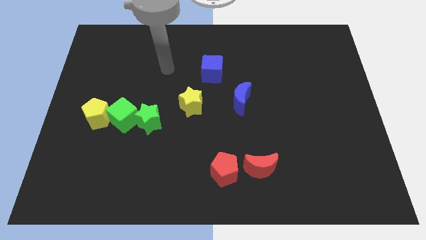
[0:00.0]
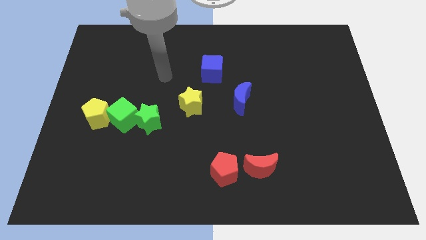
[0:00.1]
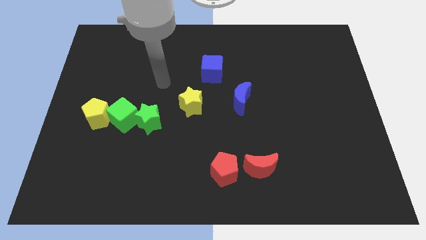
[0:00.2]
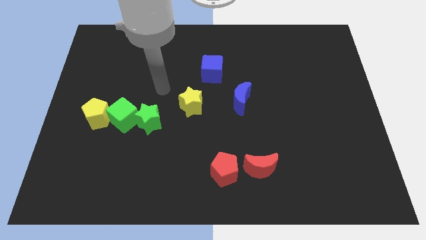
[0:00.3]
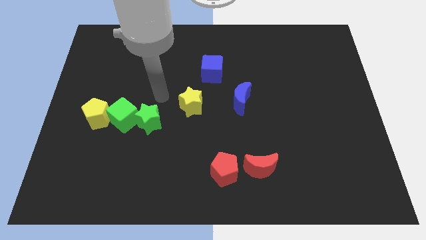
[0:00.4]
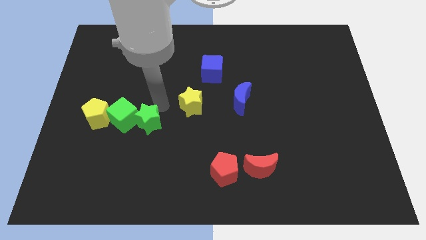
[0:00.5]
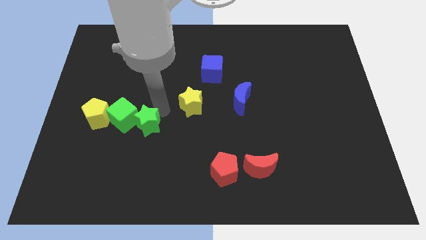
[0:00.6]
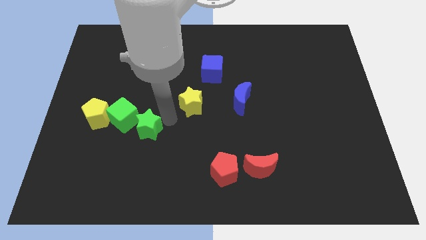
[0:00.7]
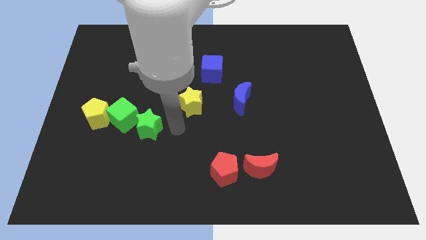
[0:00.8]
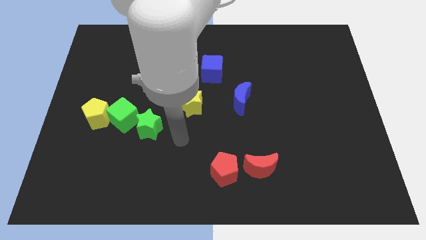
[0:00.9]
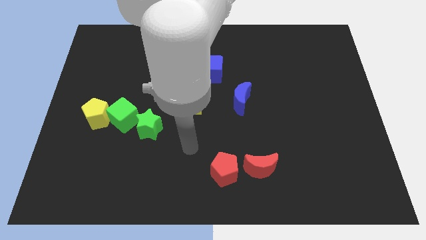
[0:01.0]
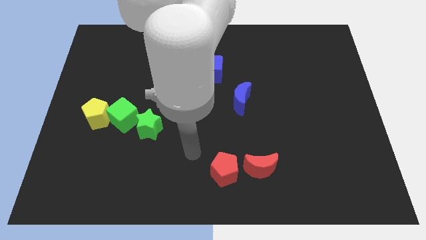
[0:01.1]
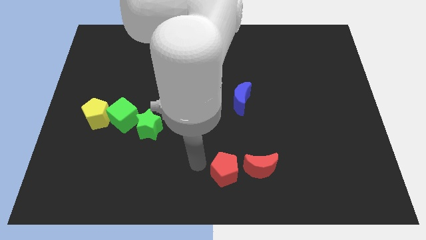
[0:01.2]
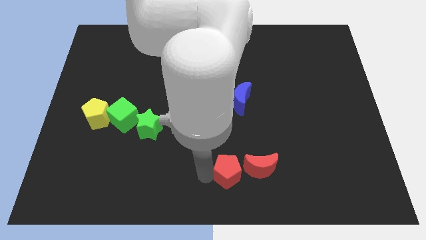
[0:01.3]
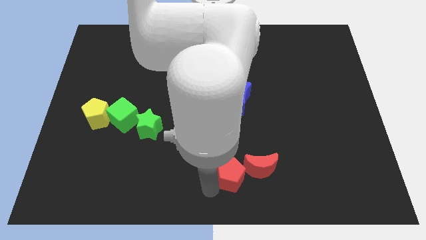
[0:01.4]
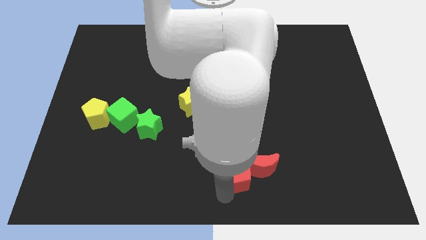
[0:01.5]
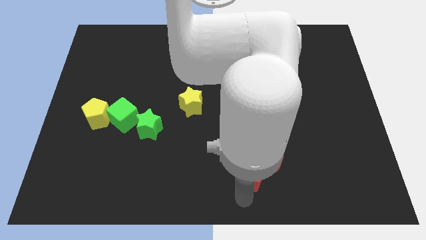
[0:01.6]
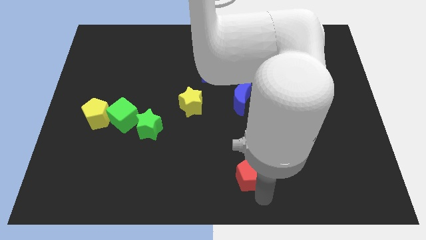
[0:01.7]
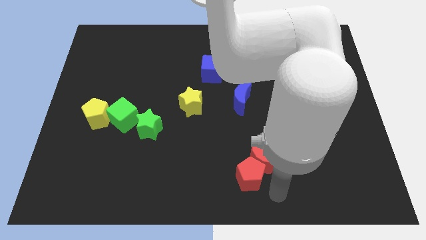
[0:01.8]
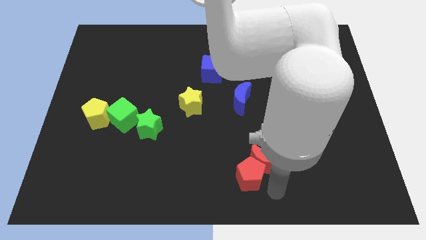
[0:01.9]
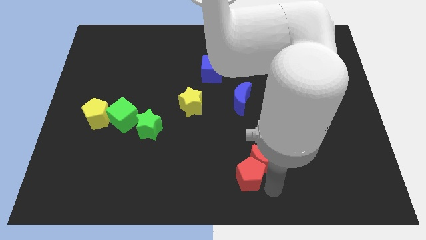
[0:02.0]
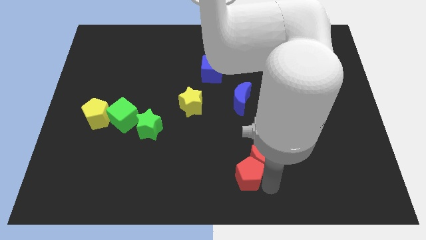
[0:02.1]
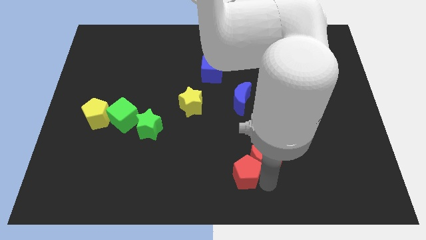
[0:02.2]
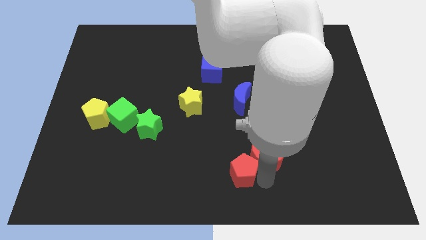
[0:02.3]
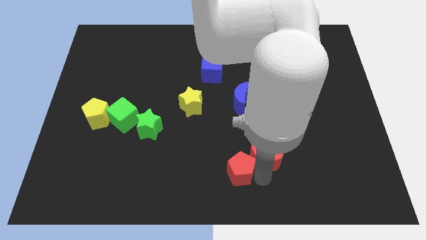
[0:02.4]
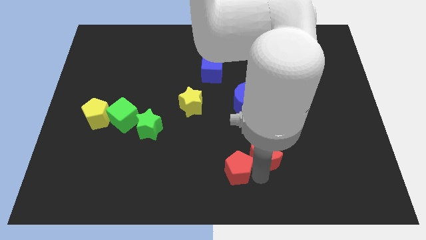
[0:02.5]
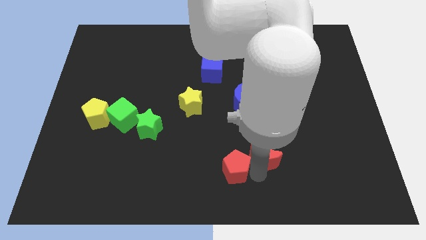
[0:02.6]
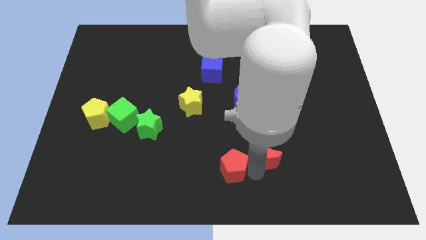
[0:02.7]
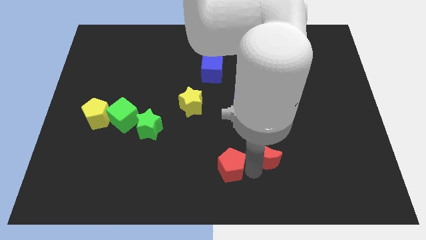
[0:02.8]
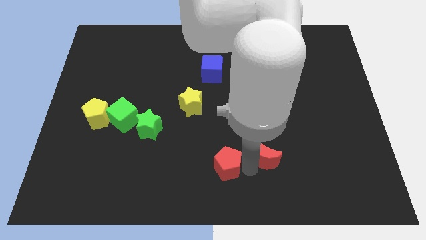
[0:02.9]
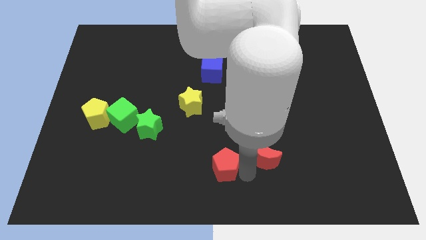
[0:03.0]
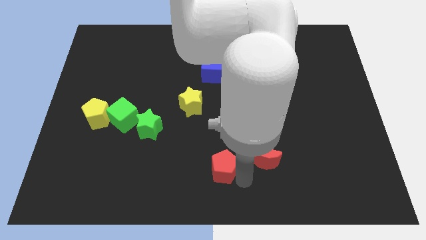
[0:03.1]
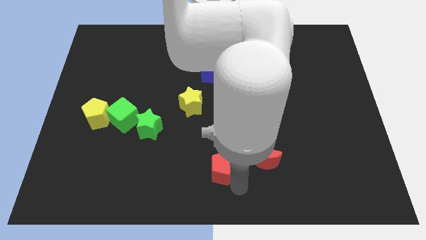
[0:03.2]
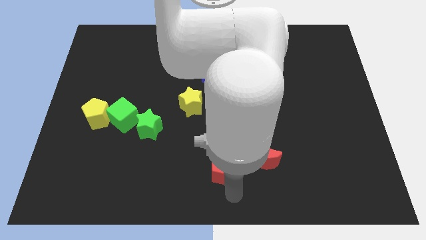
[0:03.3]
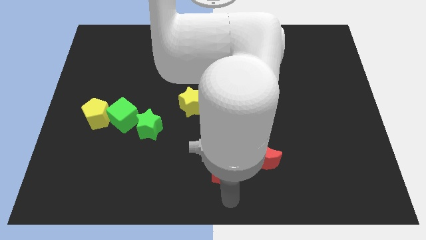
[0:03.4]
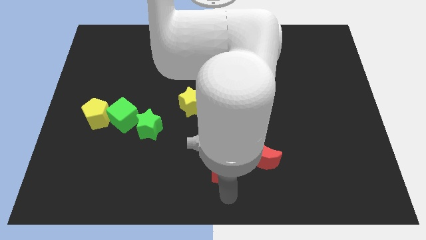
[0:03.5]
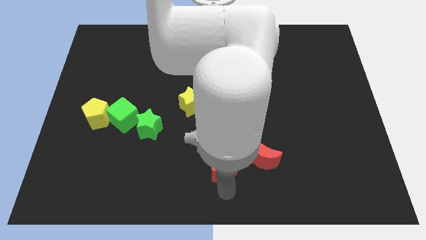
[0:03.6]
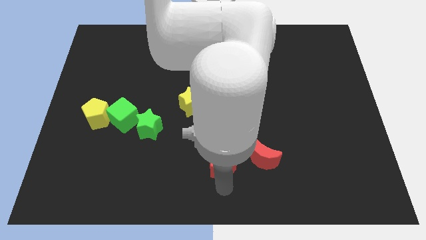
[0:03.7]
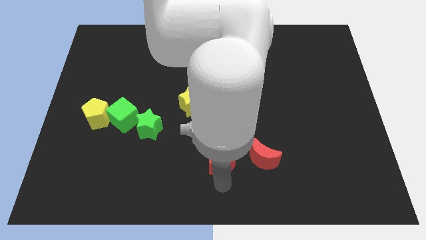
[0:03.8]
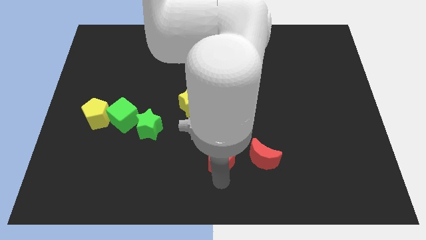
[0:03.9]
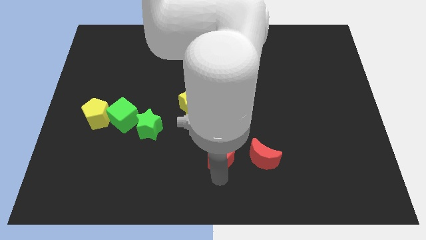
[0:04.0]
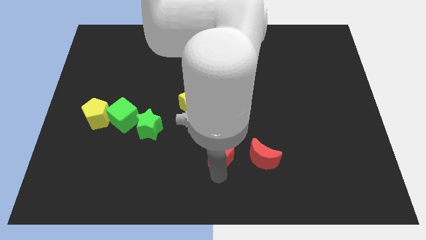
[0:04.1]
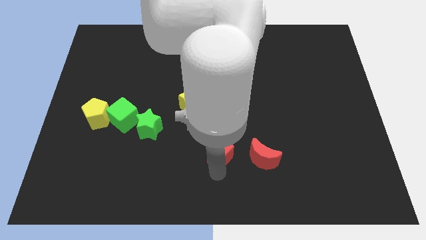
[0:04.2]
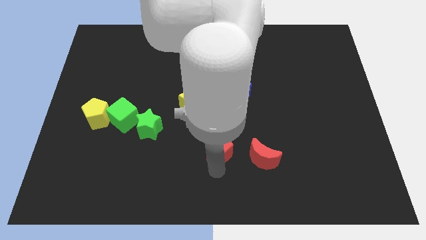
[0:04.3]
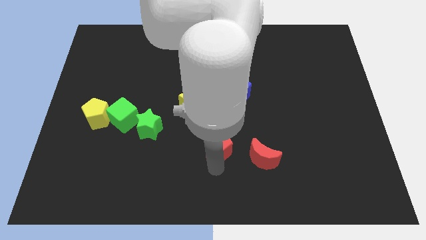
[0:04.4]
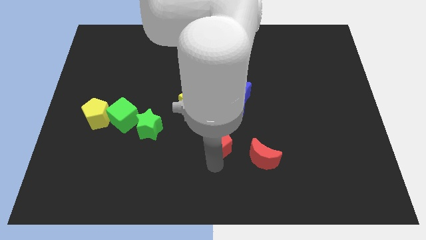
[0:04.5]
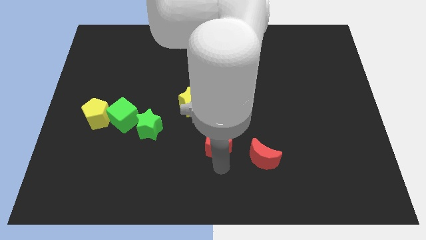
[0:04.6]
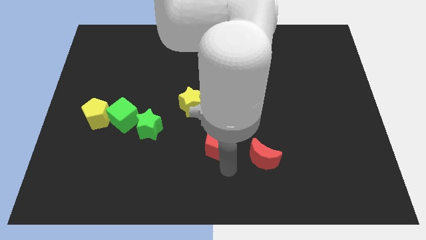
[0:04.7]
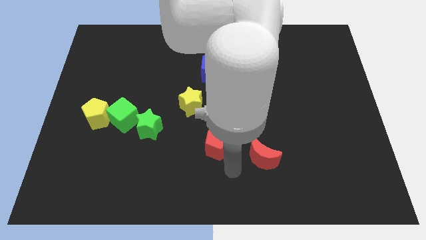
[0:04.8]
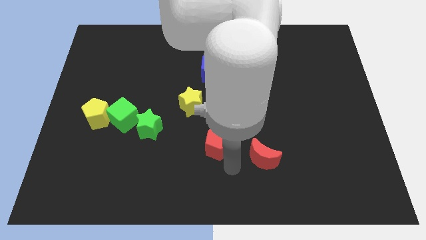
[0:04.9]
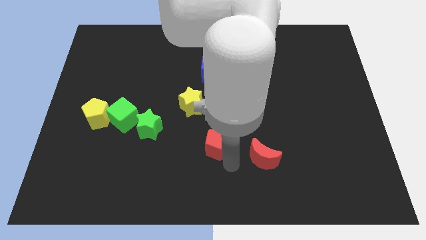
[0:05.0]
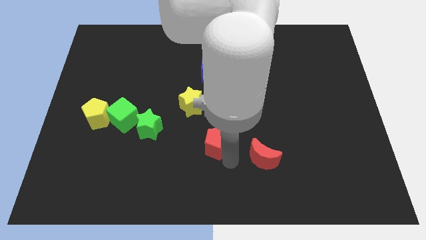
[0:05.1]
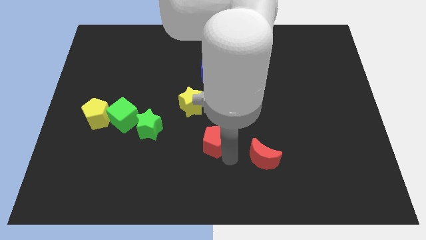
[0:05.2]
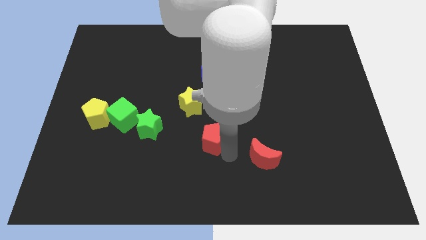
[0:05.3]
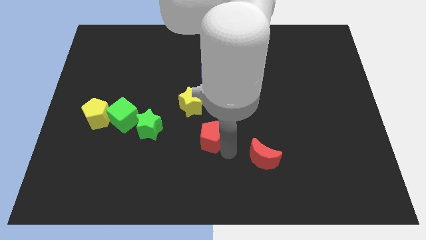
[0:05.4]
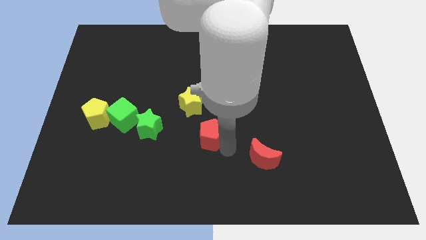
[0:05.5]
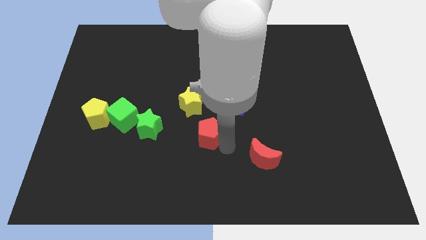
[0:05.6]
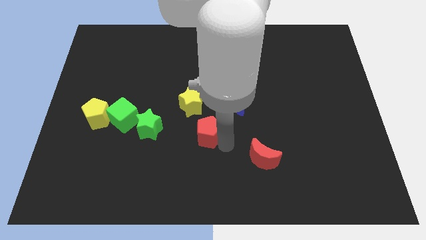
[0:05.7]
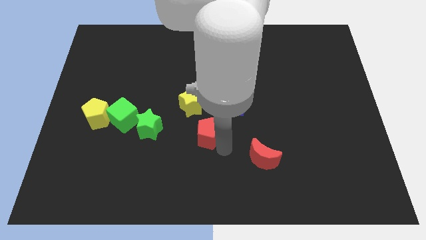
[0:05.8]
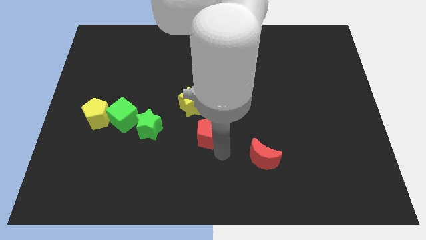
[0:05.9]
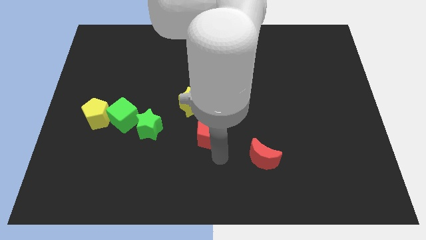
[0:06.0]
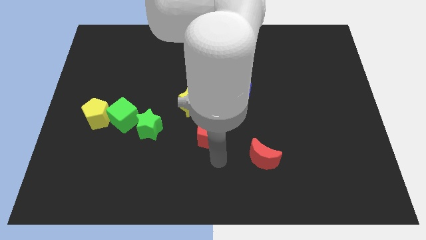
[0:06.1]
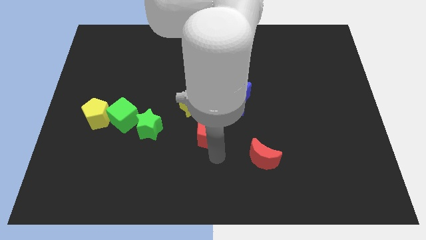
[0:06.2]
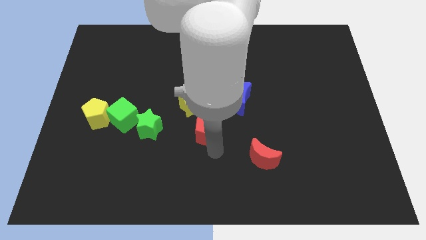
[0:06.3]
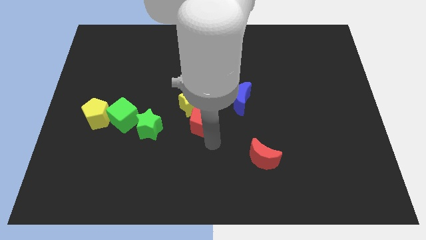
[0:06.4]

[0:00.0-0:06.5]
slide the red pentagon next to the yellow star

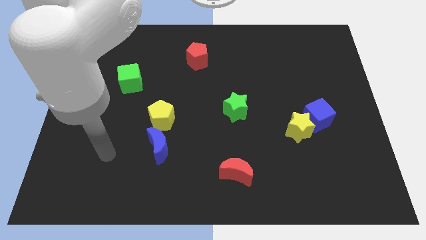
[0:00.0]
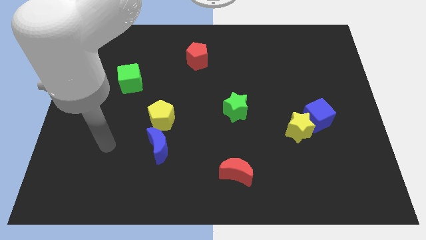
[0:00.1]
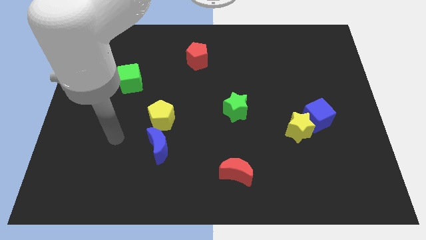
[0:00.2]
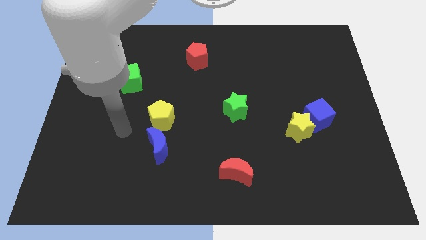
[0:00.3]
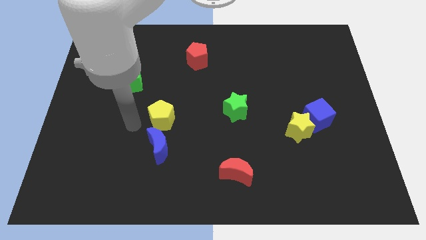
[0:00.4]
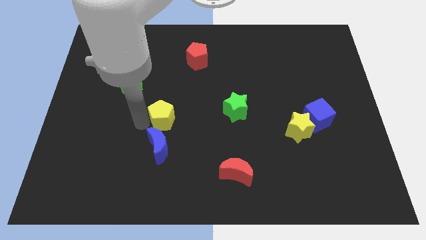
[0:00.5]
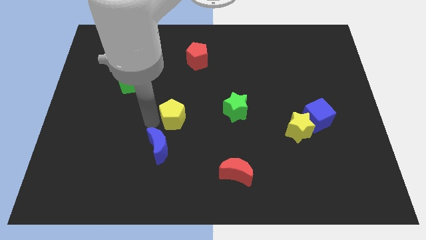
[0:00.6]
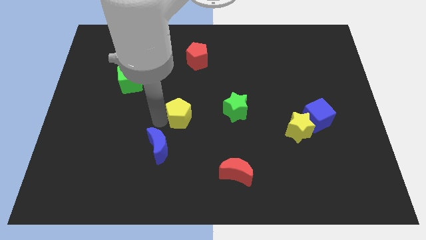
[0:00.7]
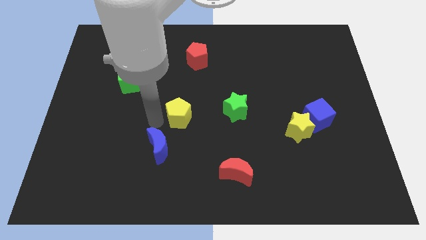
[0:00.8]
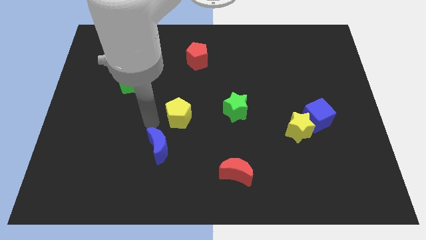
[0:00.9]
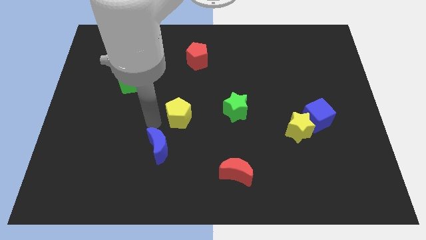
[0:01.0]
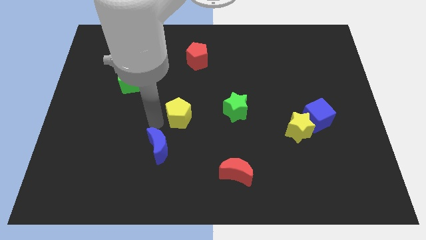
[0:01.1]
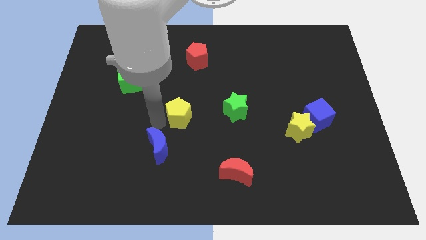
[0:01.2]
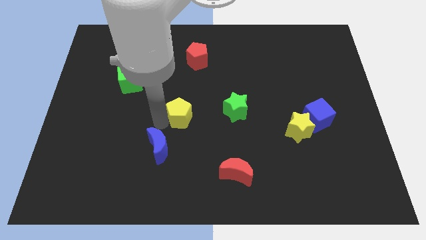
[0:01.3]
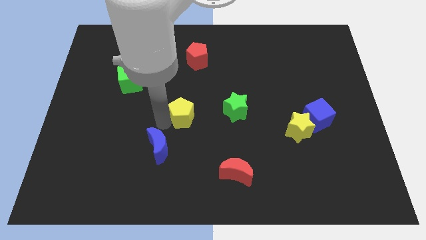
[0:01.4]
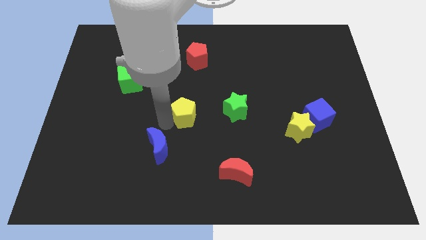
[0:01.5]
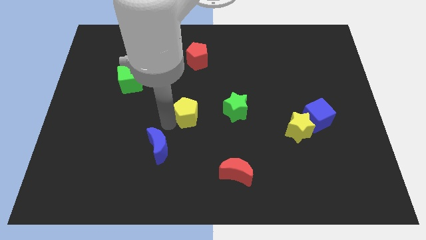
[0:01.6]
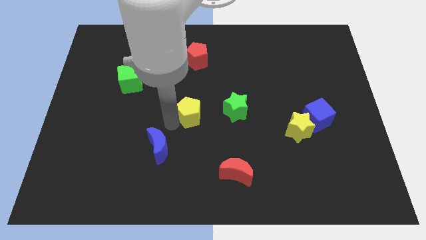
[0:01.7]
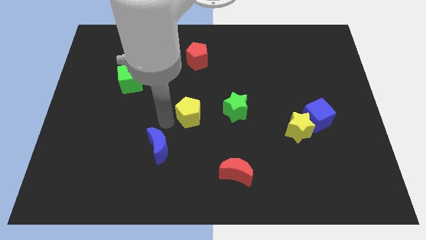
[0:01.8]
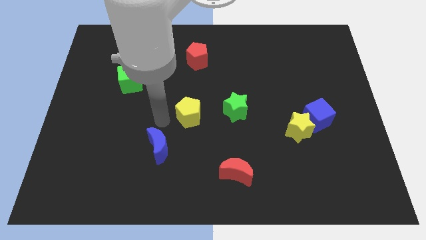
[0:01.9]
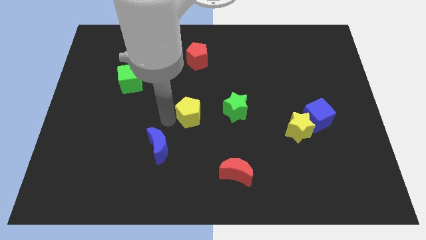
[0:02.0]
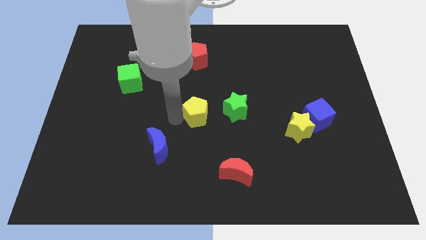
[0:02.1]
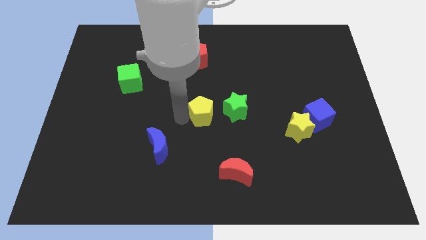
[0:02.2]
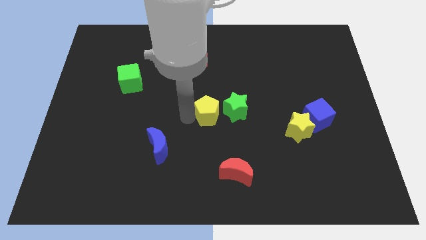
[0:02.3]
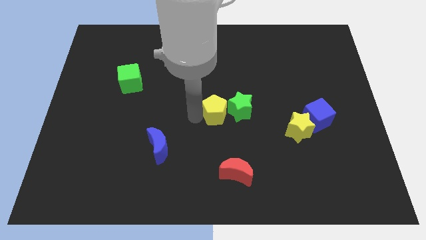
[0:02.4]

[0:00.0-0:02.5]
move the yellow pentagon close to the green star
